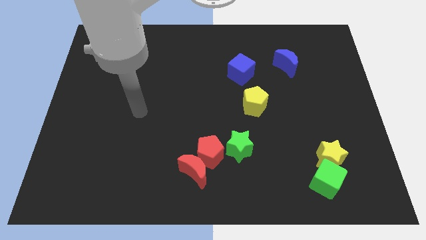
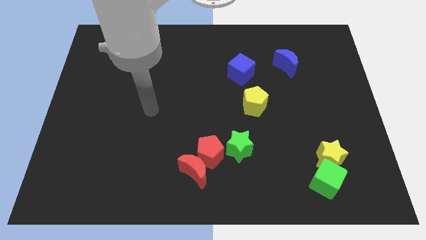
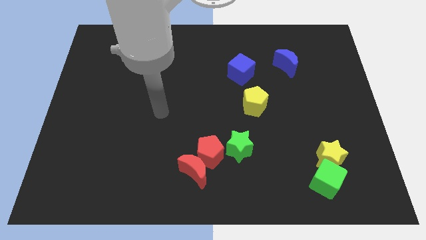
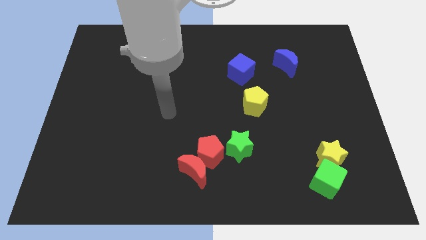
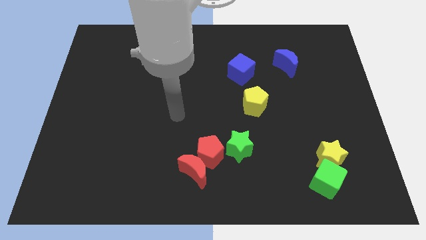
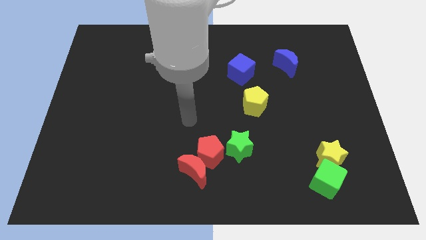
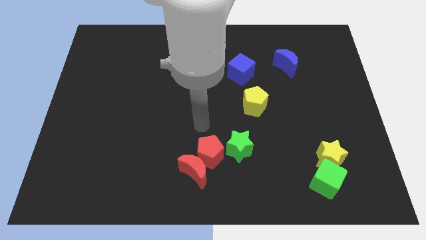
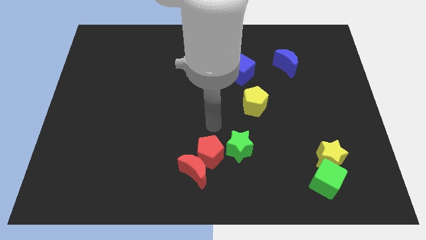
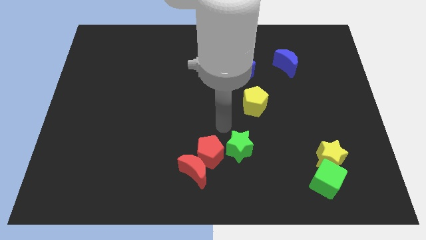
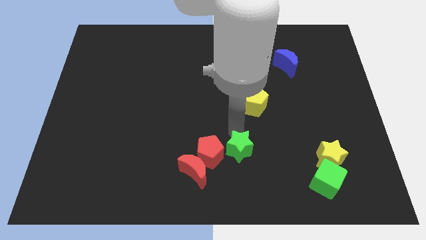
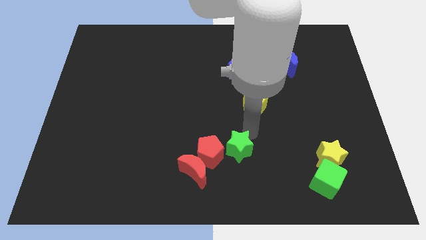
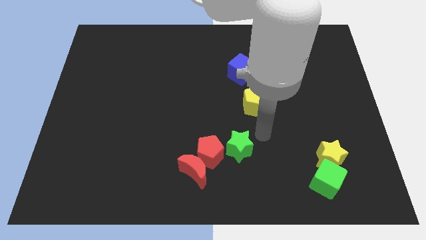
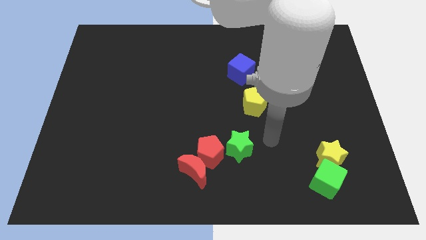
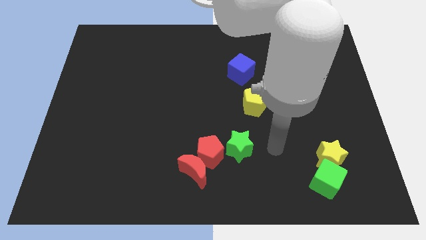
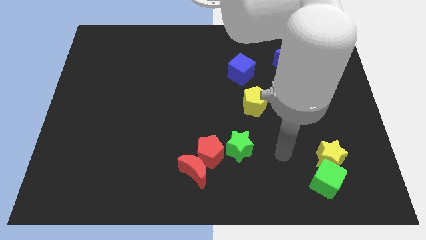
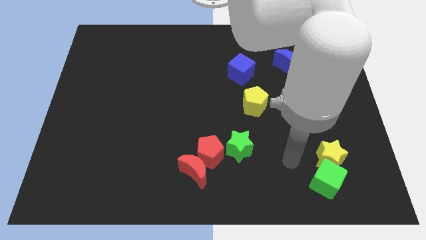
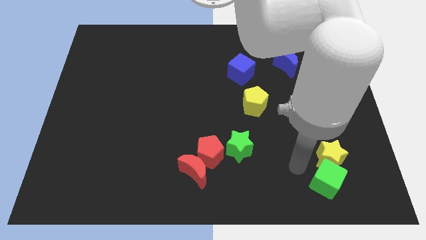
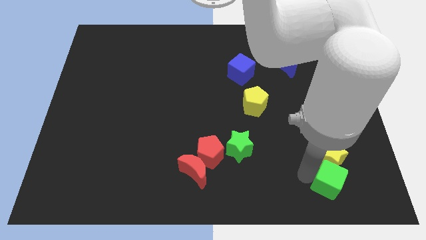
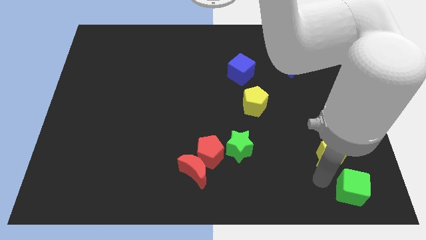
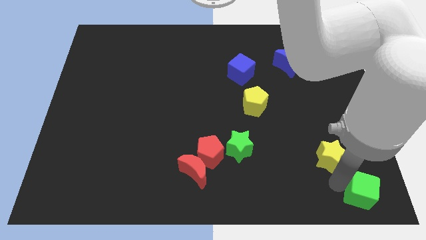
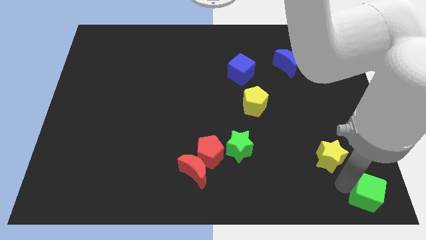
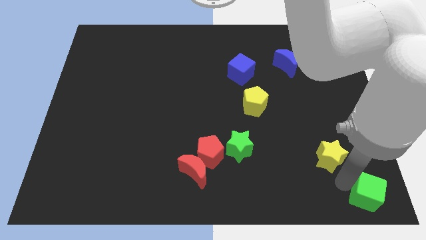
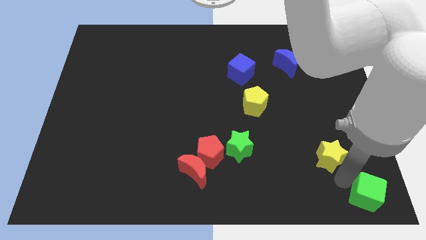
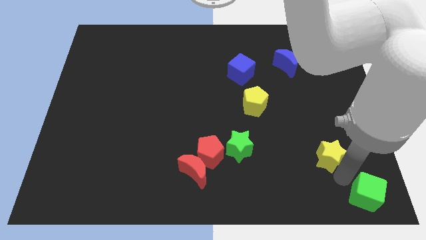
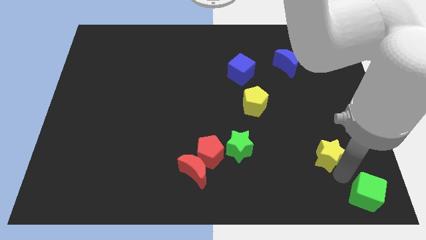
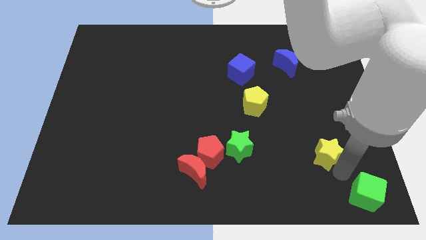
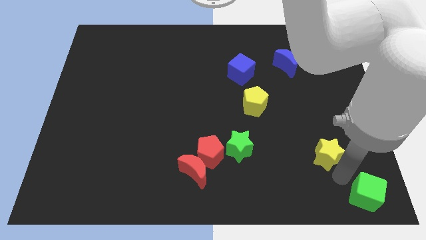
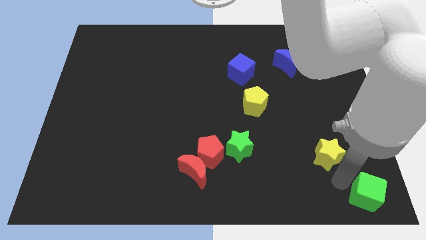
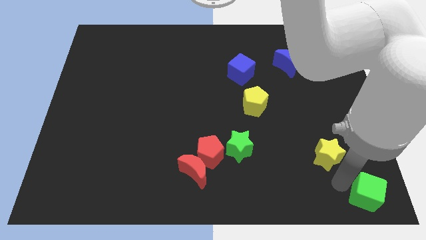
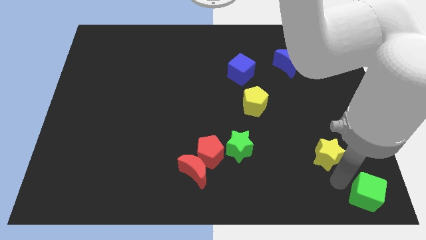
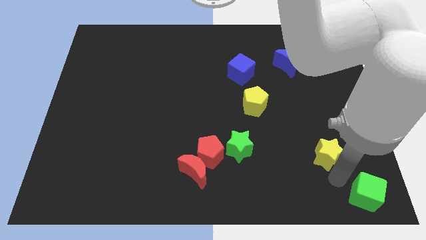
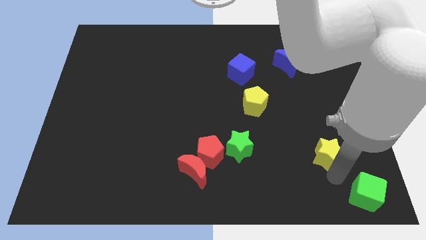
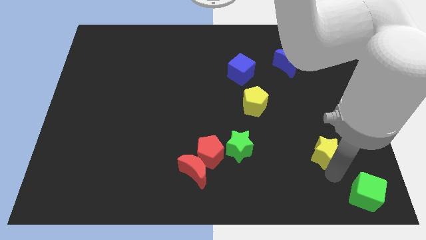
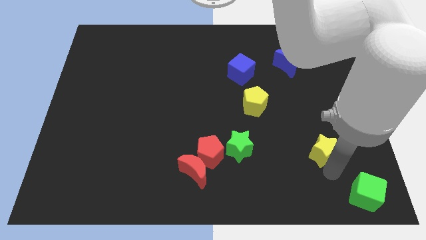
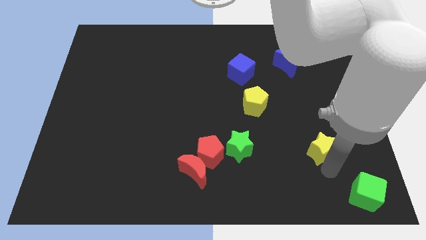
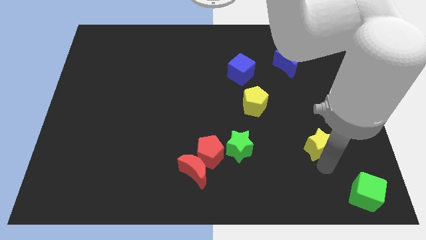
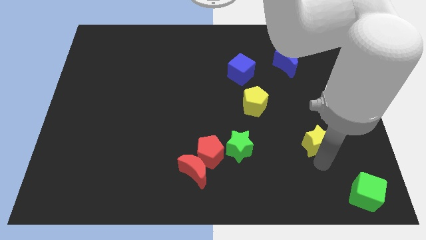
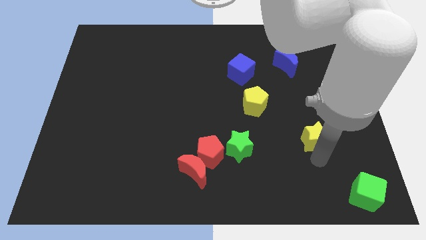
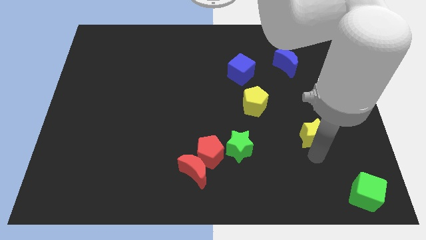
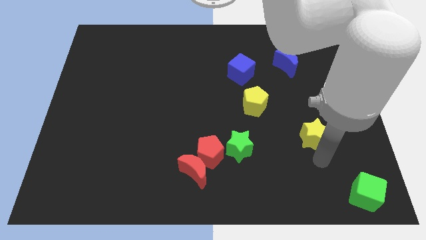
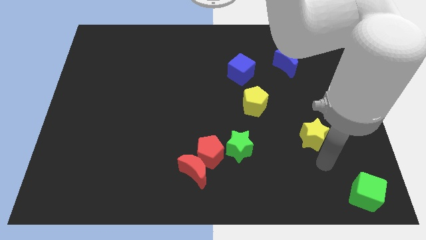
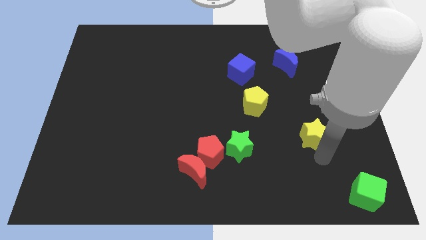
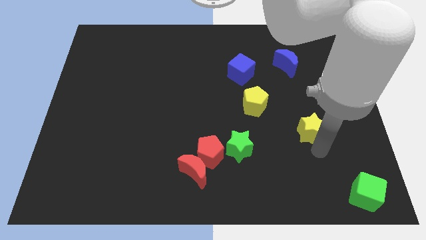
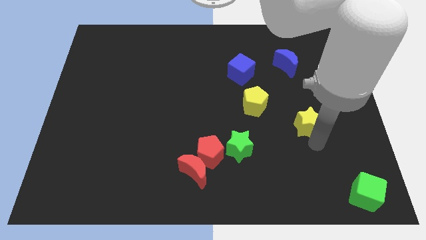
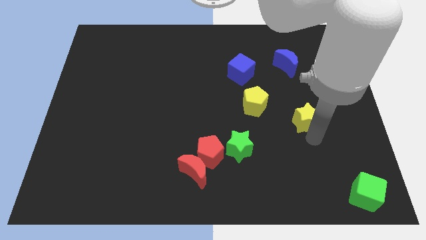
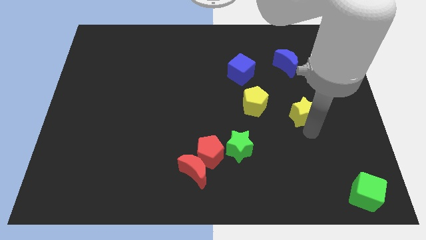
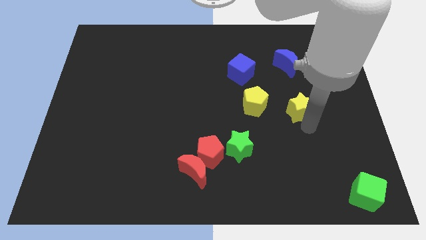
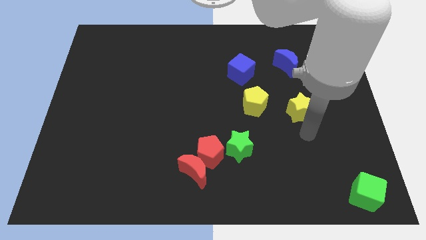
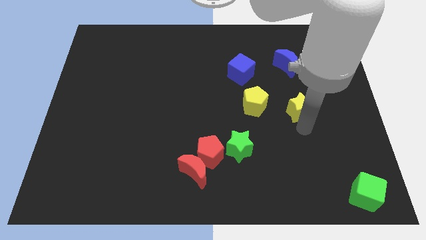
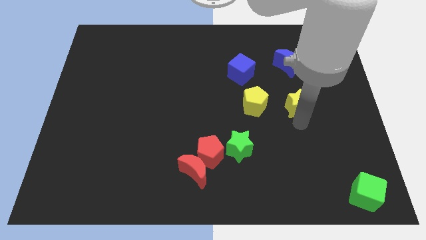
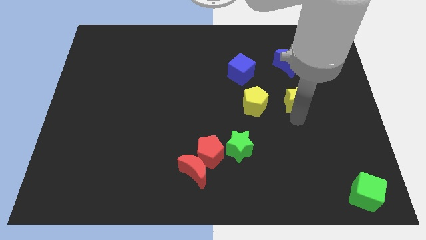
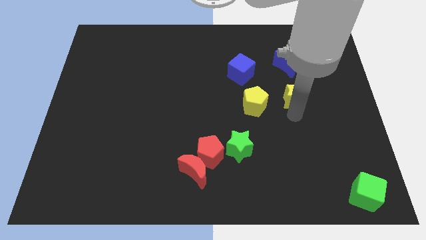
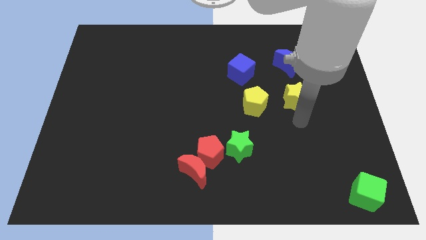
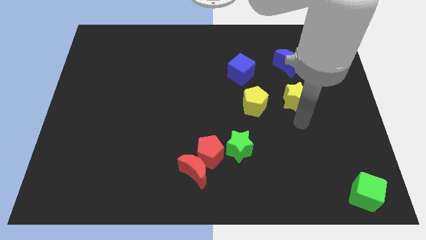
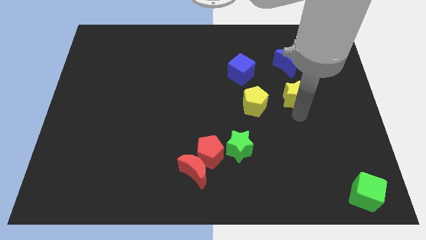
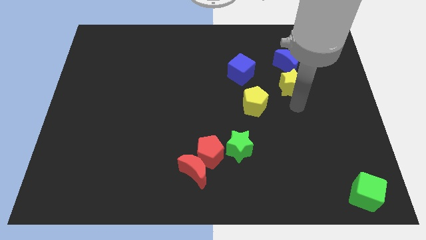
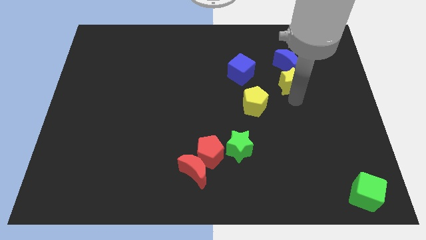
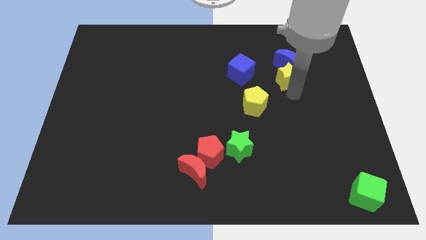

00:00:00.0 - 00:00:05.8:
put the yellow star towards the blue moon

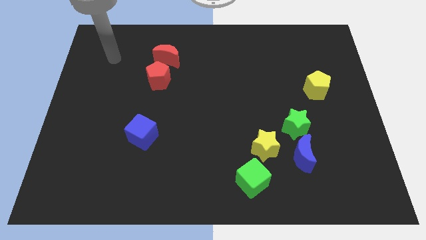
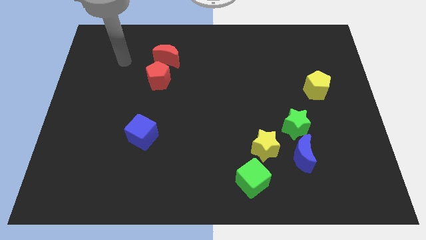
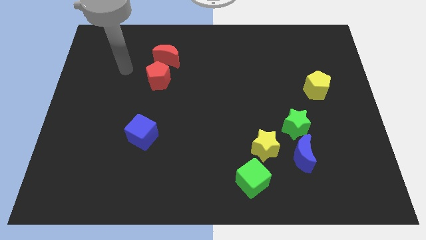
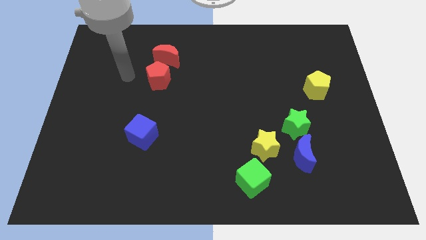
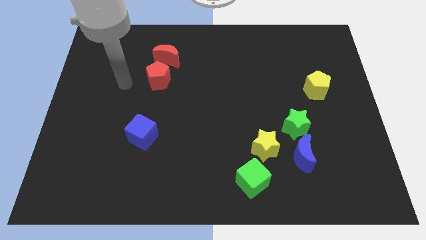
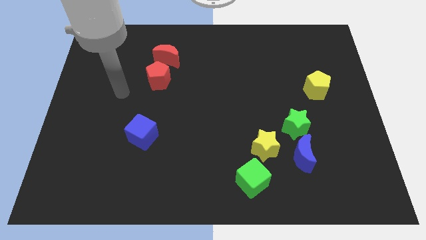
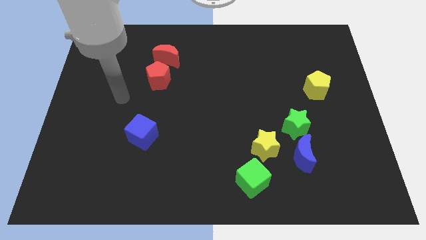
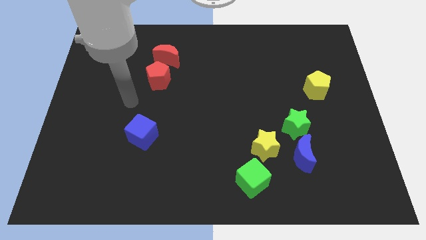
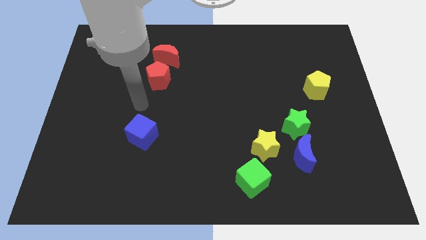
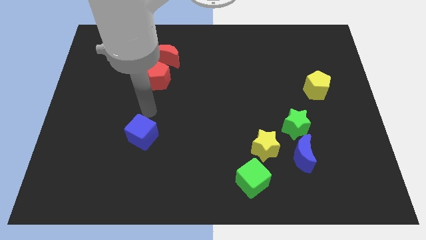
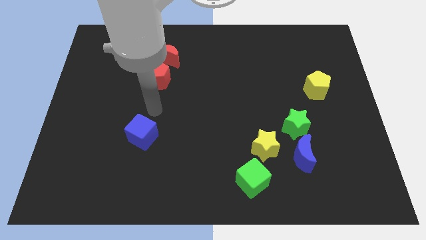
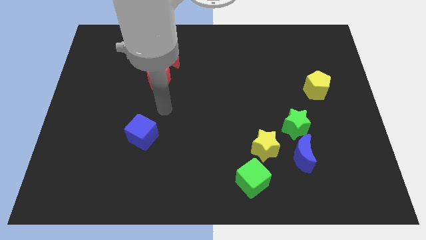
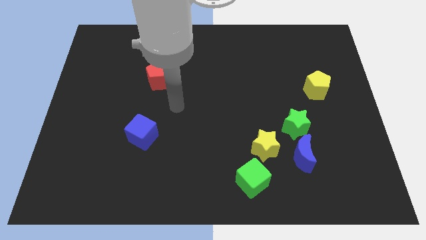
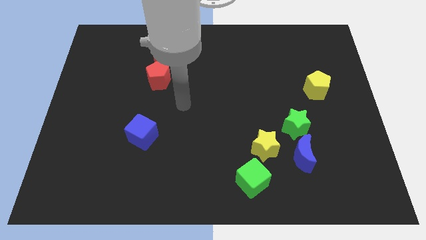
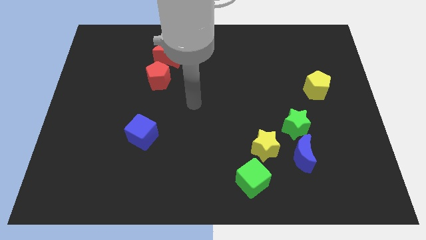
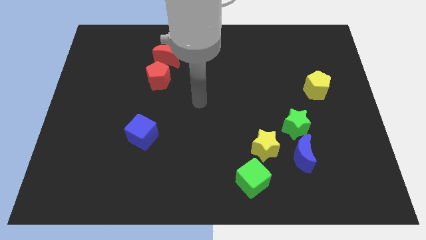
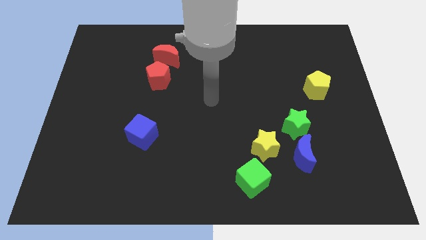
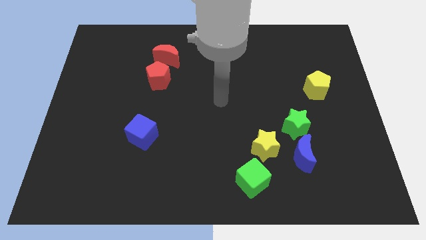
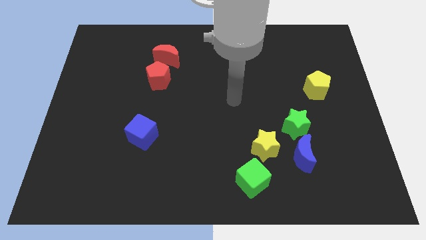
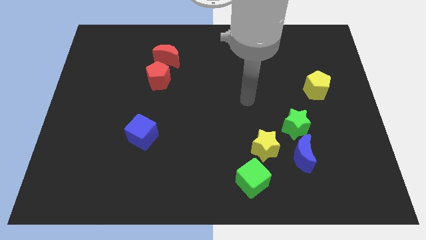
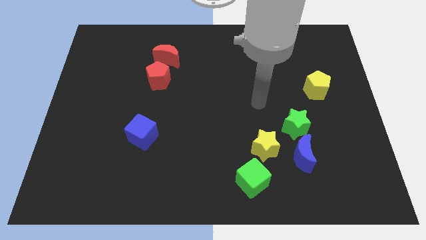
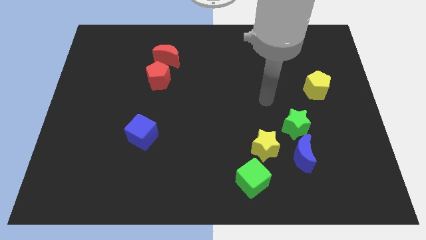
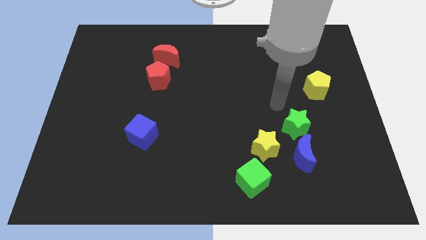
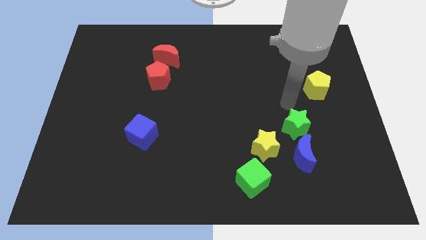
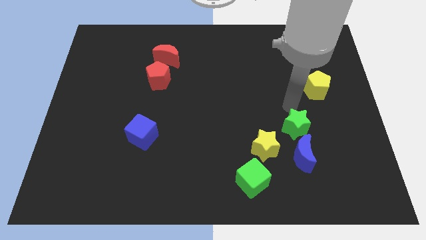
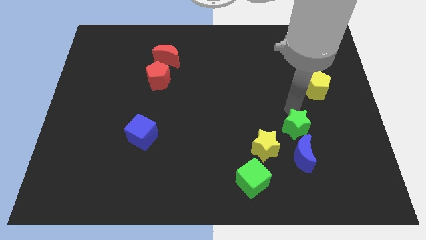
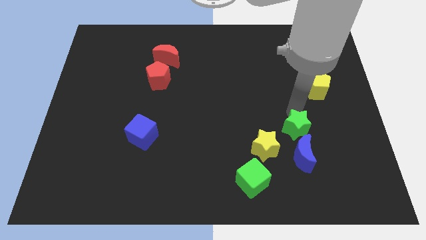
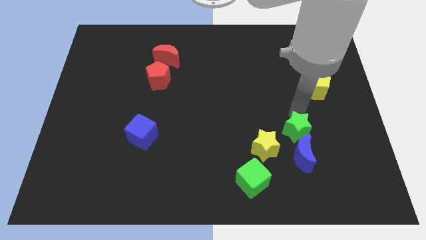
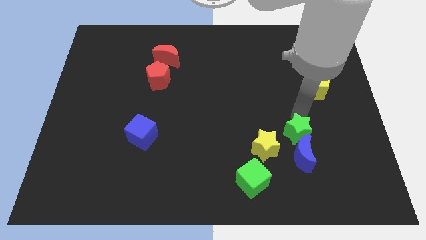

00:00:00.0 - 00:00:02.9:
put the green star towards the blue moon
